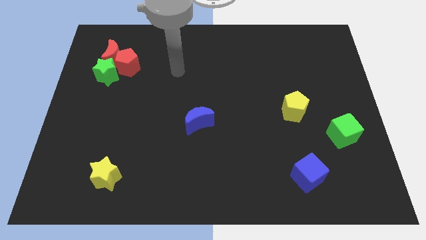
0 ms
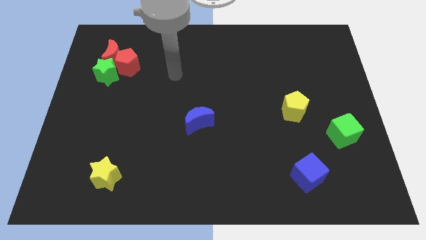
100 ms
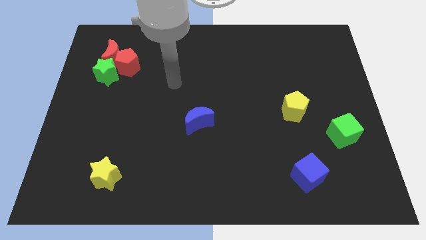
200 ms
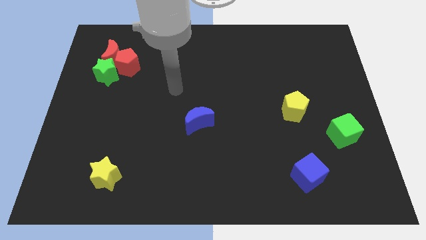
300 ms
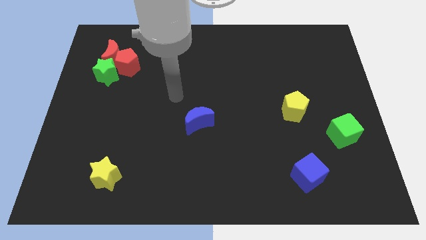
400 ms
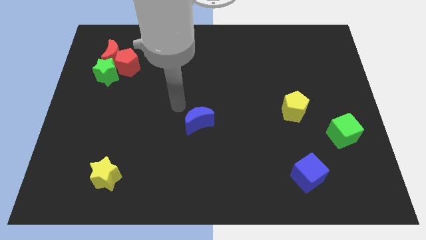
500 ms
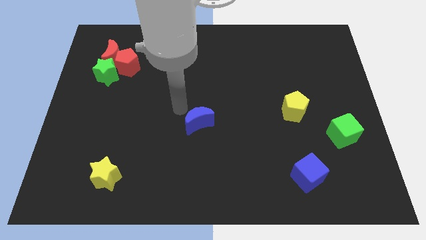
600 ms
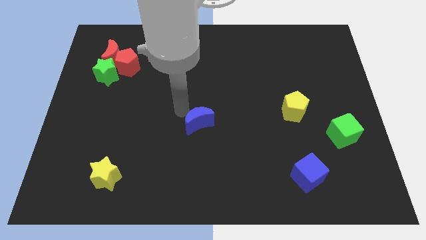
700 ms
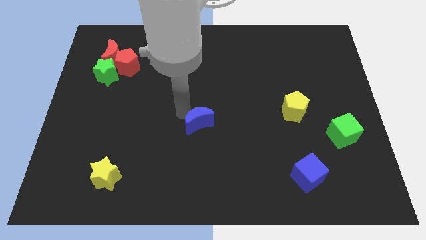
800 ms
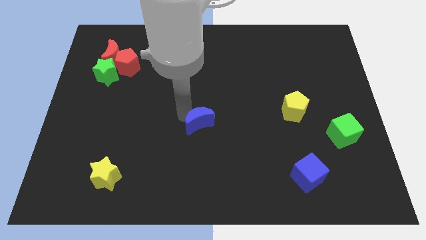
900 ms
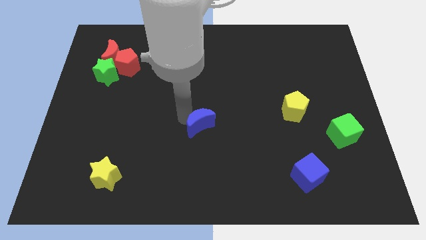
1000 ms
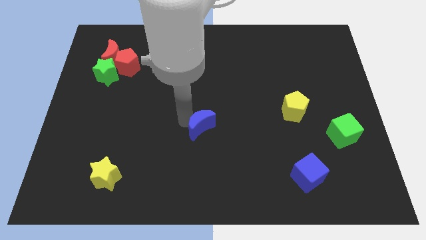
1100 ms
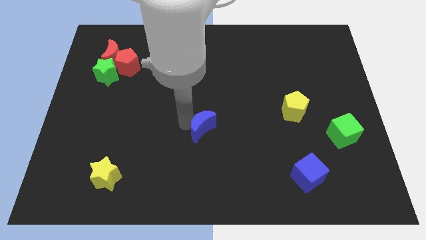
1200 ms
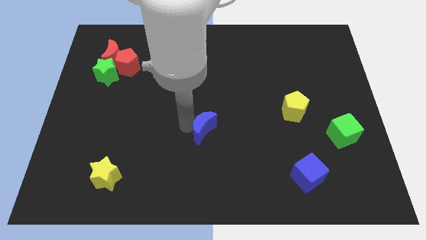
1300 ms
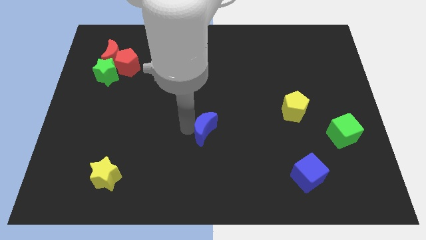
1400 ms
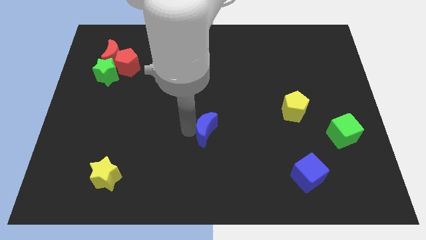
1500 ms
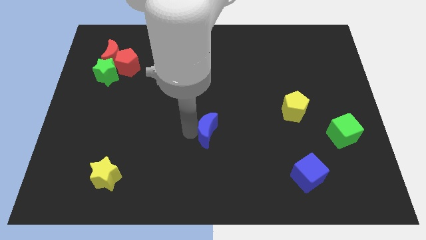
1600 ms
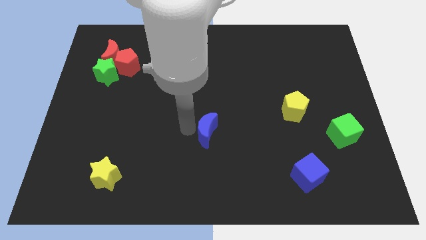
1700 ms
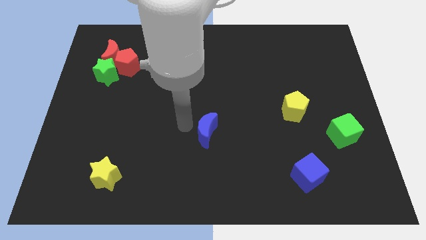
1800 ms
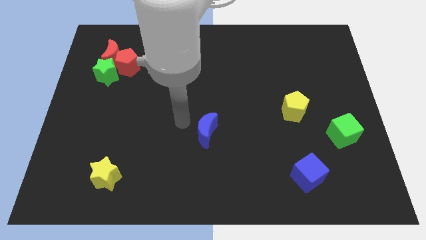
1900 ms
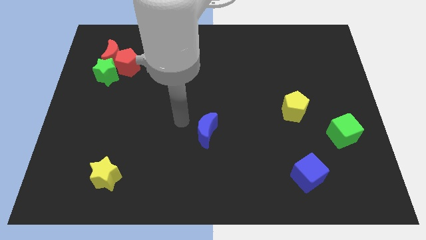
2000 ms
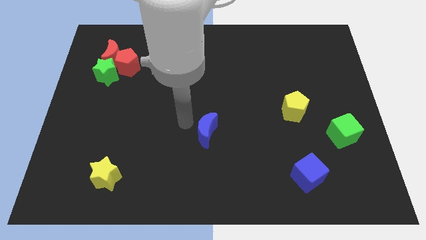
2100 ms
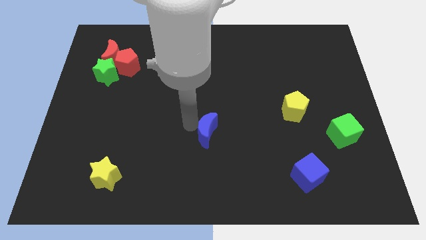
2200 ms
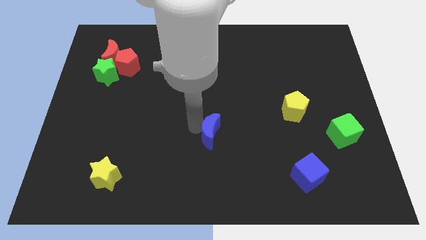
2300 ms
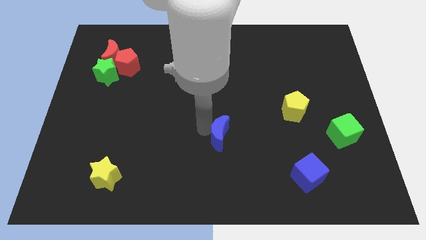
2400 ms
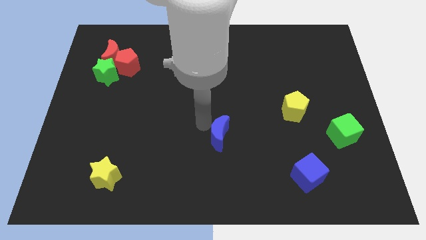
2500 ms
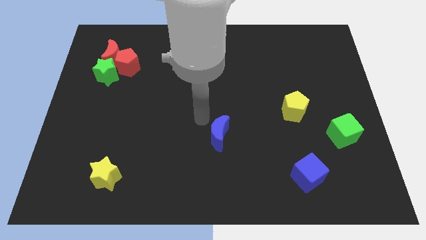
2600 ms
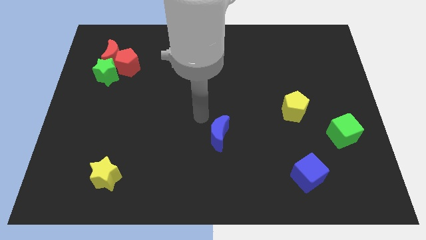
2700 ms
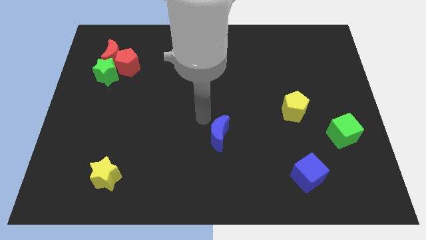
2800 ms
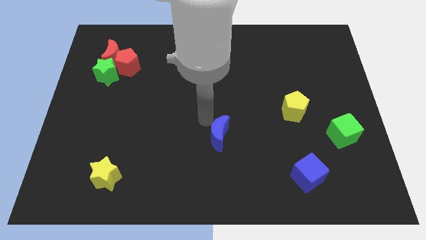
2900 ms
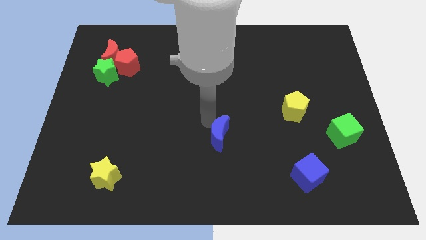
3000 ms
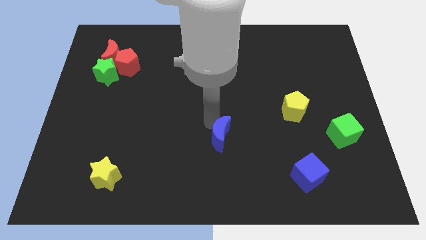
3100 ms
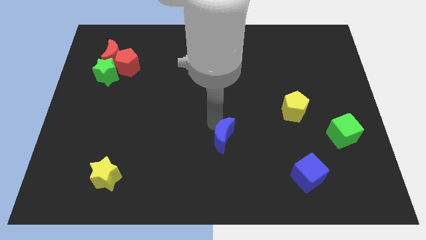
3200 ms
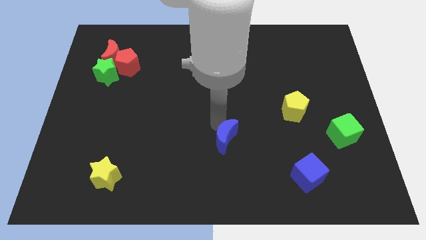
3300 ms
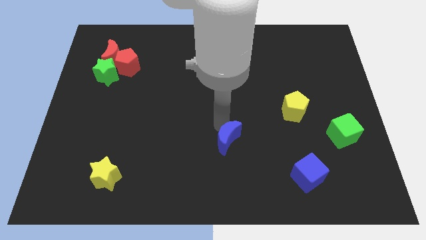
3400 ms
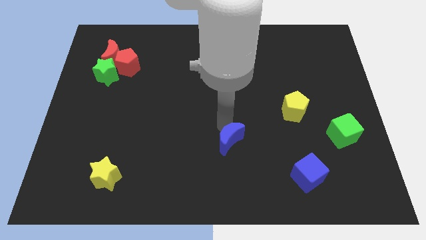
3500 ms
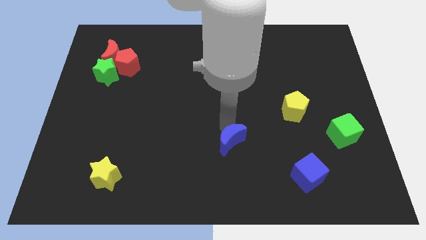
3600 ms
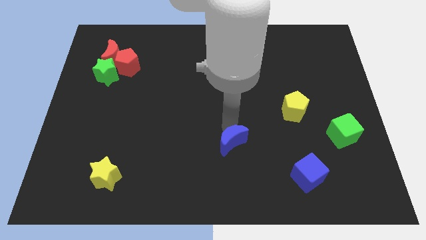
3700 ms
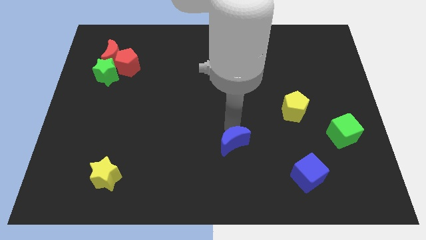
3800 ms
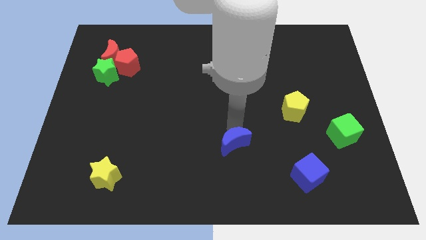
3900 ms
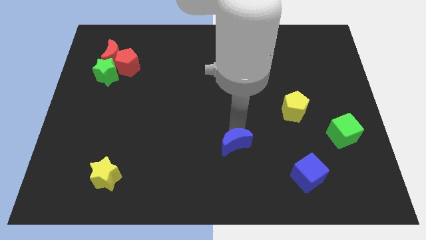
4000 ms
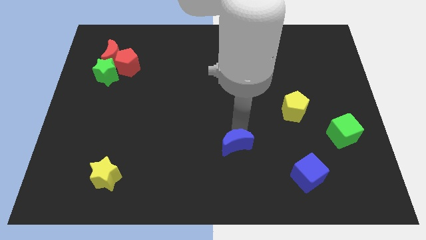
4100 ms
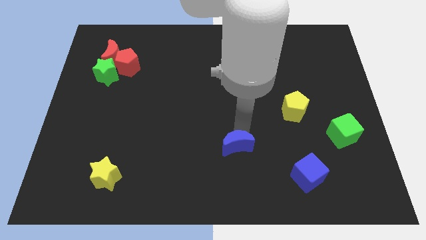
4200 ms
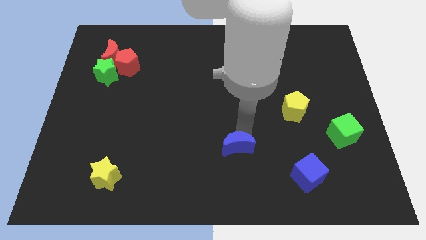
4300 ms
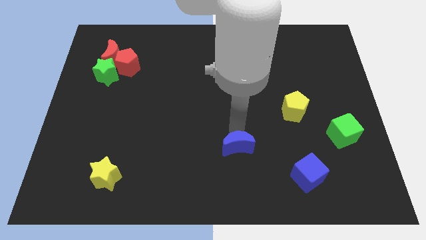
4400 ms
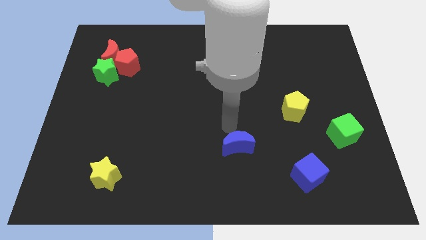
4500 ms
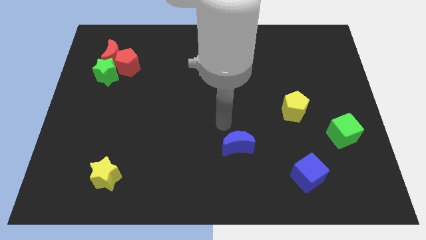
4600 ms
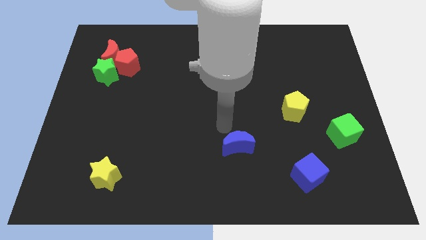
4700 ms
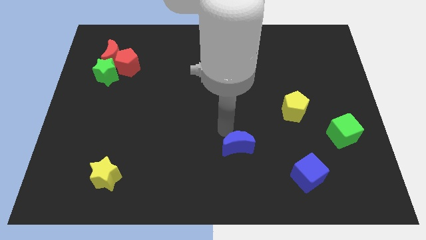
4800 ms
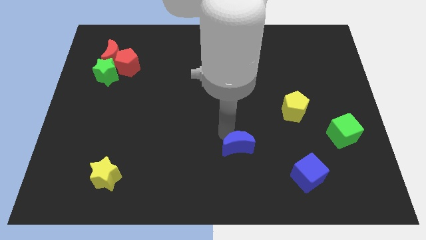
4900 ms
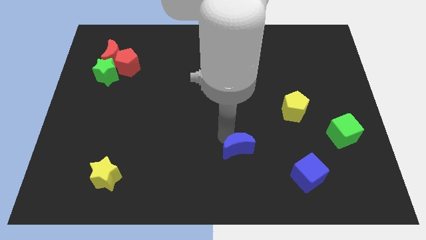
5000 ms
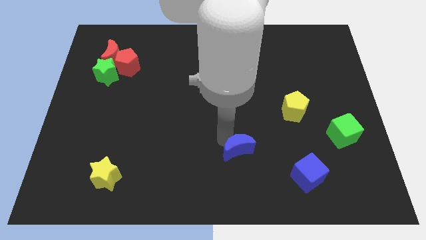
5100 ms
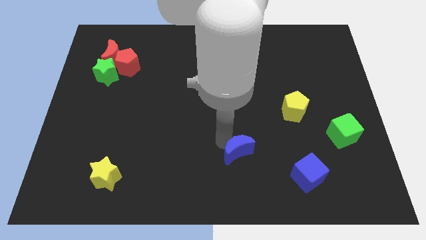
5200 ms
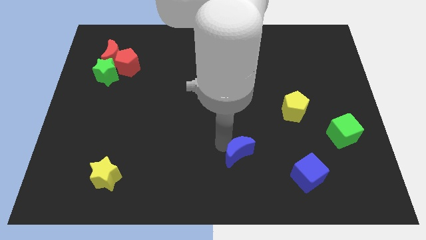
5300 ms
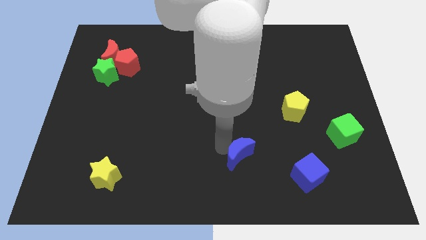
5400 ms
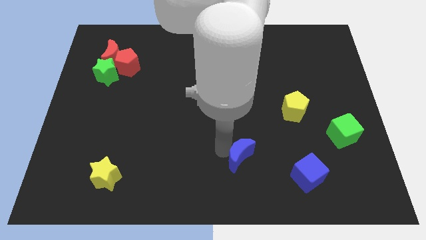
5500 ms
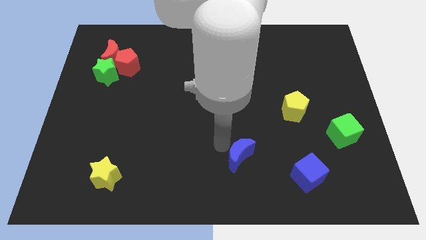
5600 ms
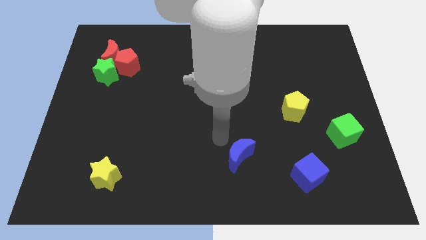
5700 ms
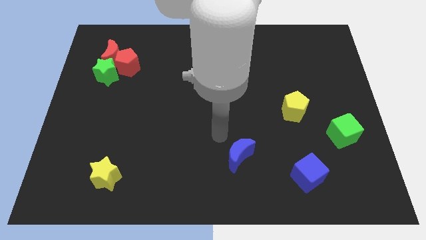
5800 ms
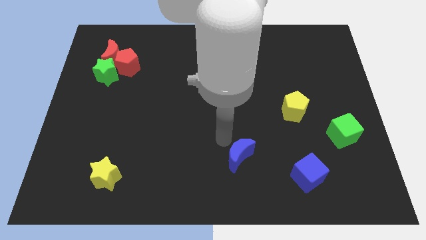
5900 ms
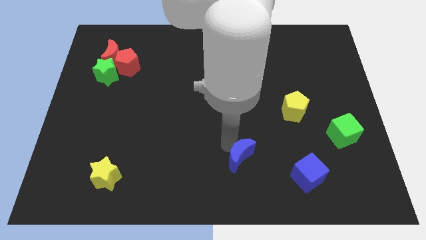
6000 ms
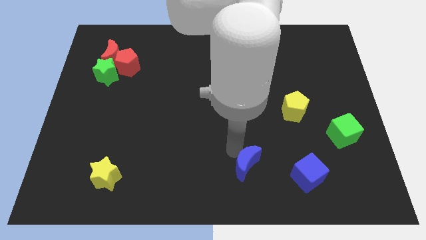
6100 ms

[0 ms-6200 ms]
move the blue moon just left of the blue cube

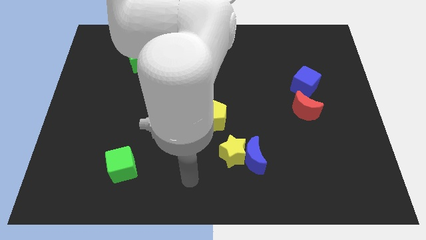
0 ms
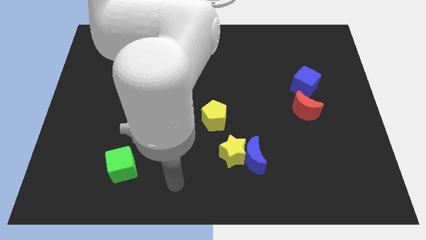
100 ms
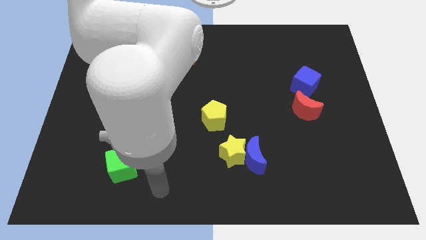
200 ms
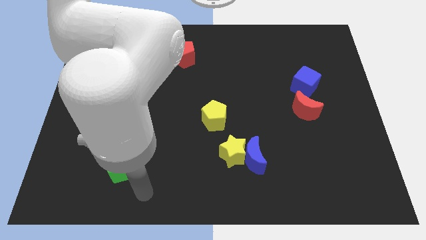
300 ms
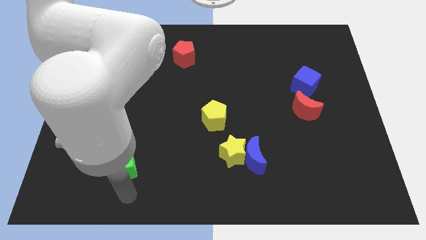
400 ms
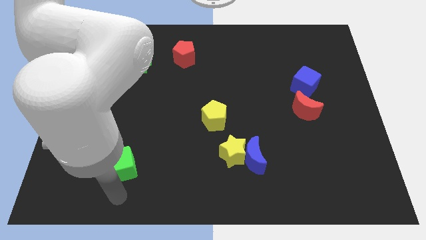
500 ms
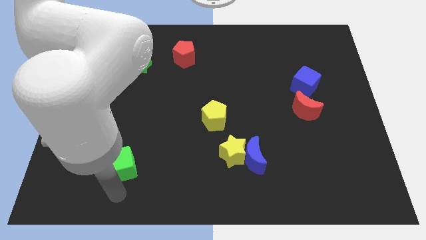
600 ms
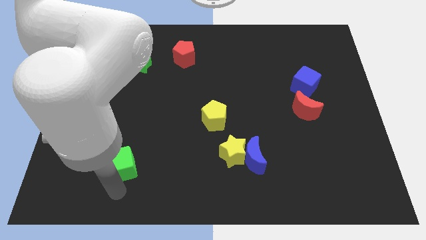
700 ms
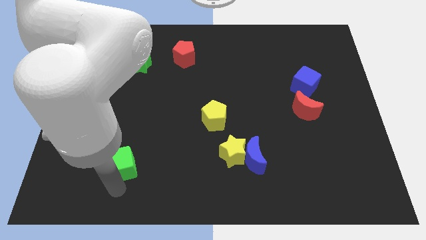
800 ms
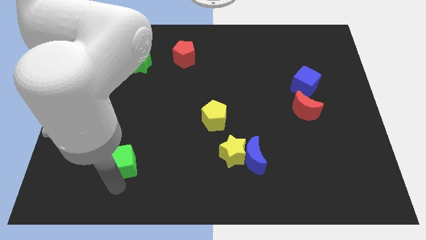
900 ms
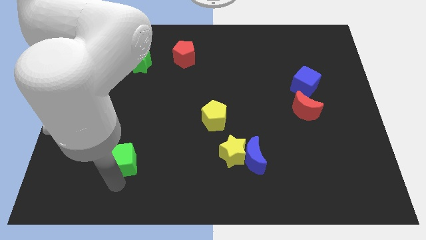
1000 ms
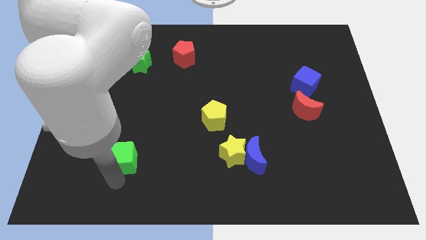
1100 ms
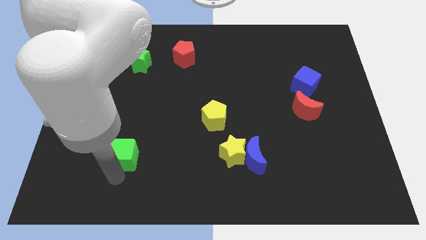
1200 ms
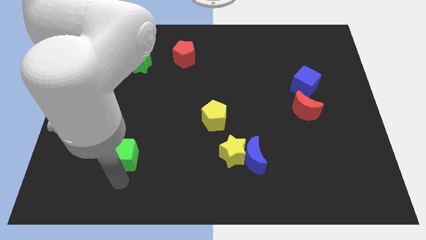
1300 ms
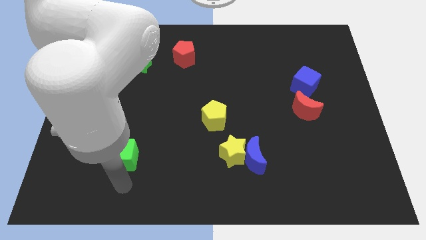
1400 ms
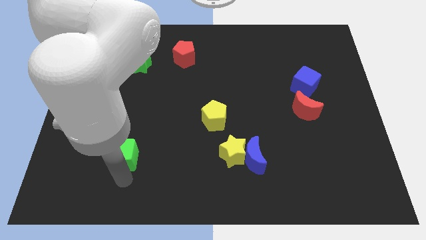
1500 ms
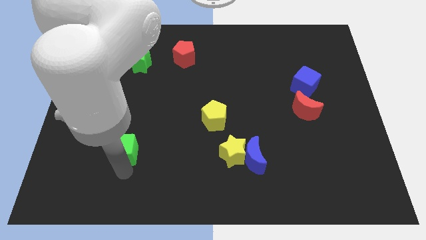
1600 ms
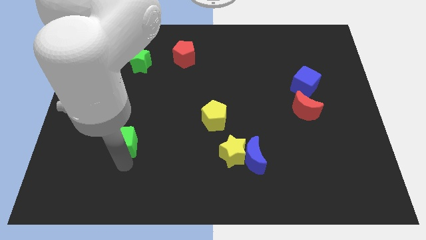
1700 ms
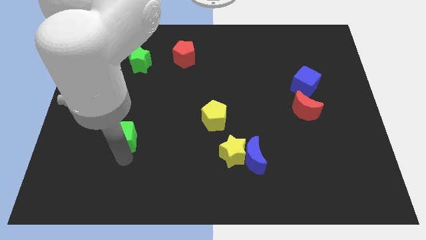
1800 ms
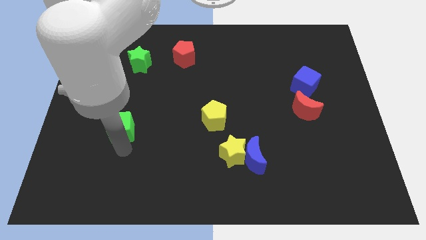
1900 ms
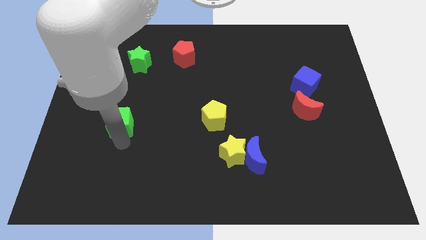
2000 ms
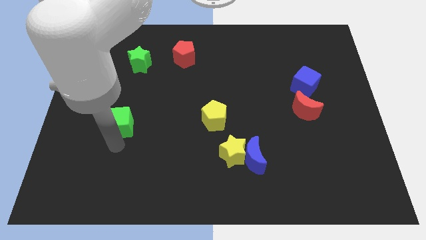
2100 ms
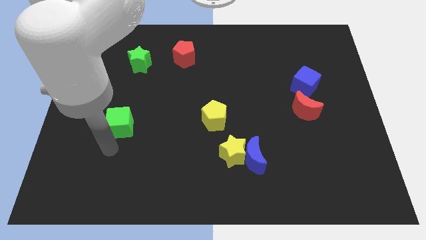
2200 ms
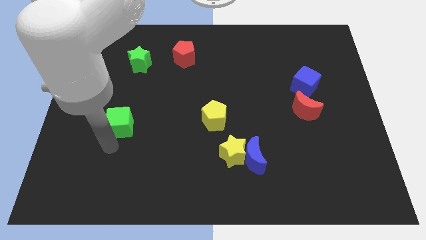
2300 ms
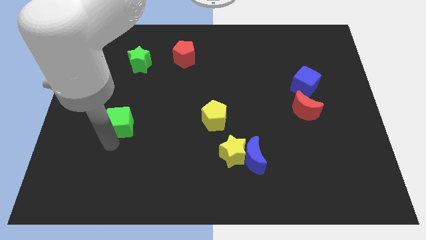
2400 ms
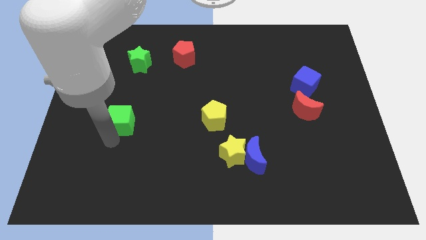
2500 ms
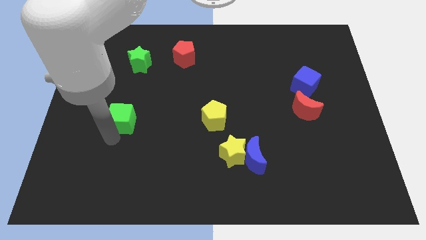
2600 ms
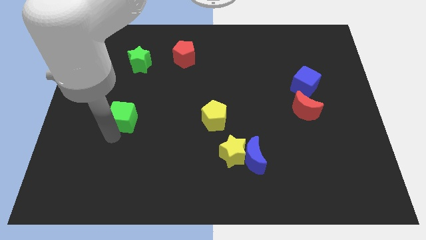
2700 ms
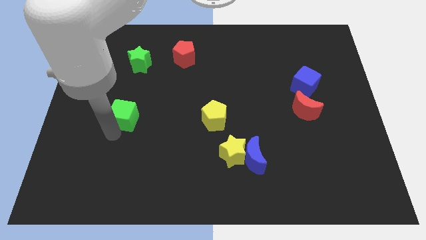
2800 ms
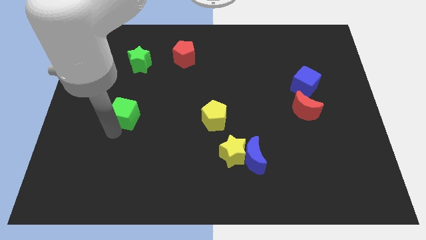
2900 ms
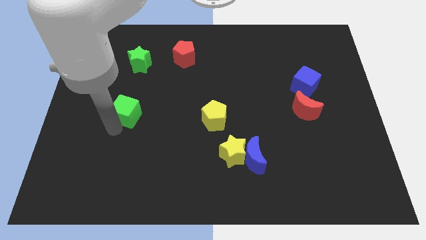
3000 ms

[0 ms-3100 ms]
move the green cube below the green star
